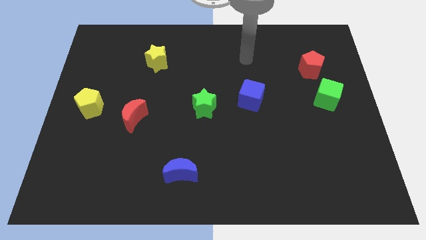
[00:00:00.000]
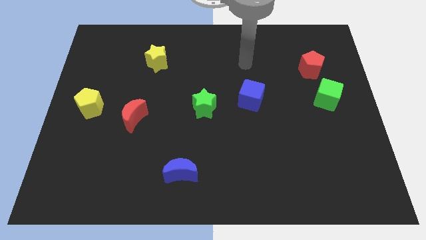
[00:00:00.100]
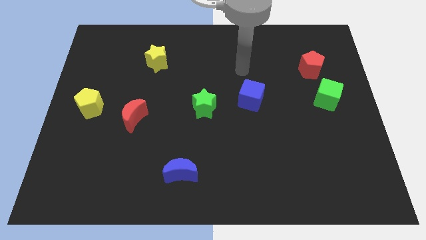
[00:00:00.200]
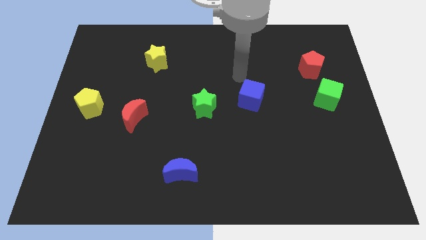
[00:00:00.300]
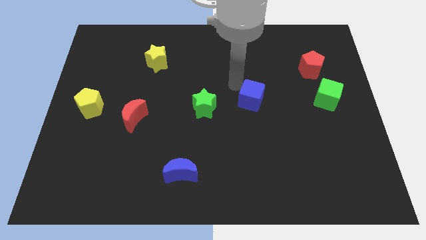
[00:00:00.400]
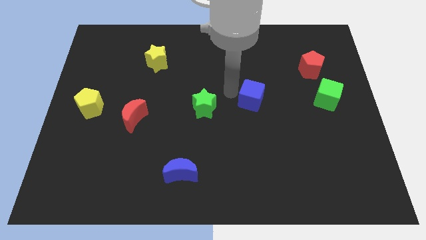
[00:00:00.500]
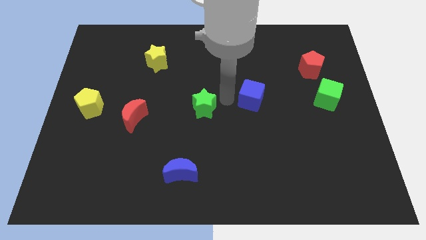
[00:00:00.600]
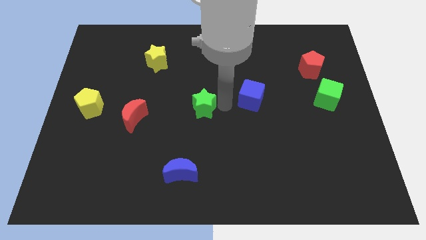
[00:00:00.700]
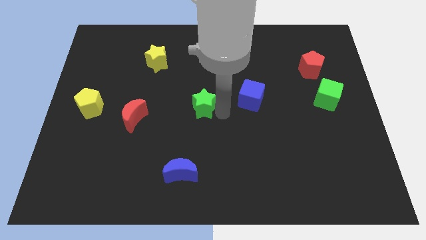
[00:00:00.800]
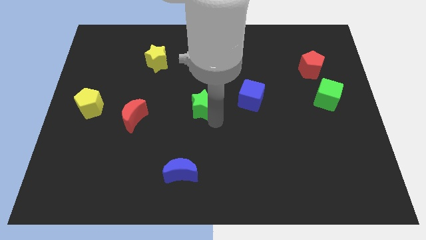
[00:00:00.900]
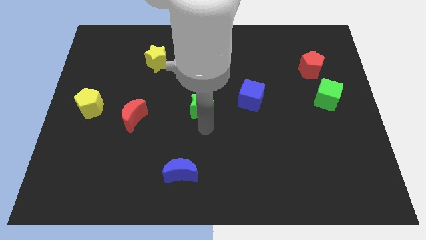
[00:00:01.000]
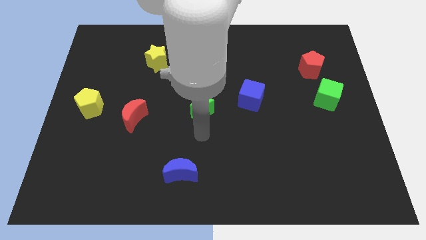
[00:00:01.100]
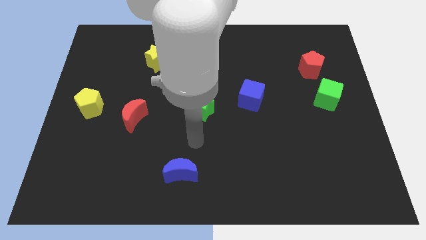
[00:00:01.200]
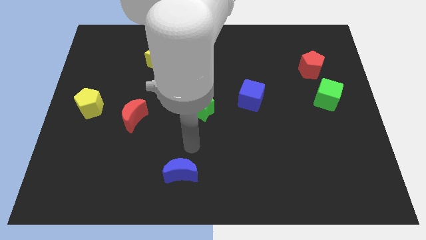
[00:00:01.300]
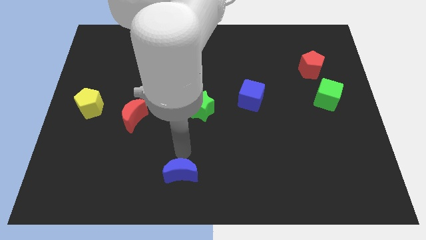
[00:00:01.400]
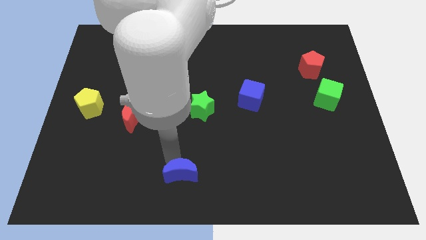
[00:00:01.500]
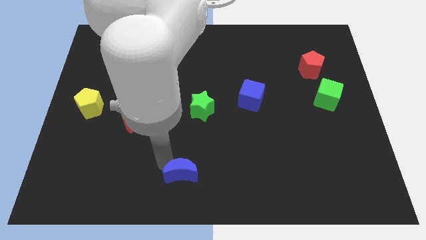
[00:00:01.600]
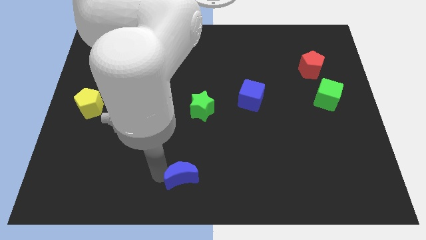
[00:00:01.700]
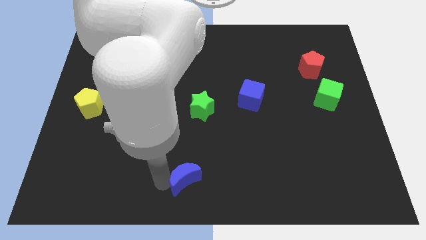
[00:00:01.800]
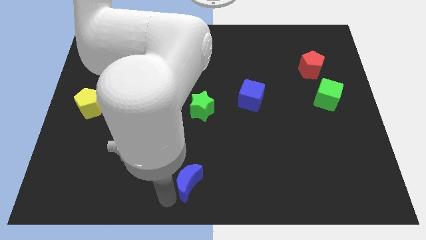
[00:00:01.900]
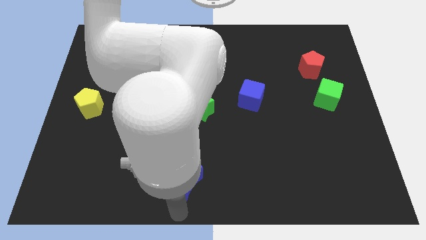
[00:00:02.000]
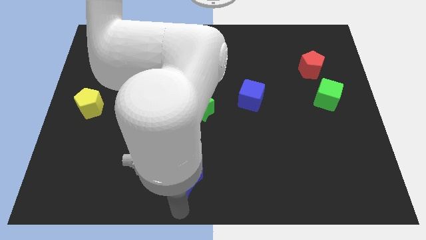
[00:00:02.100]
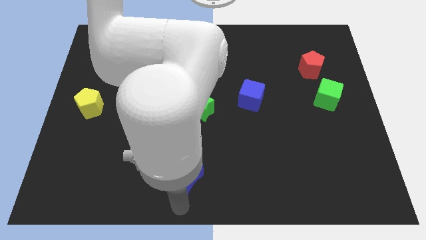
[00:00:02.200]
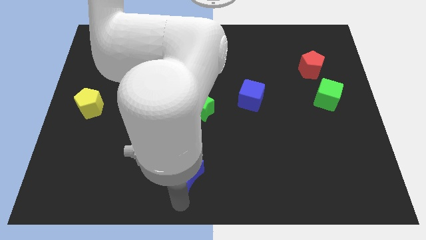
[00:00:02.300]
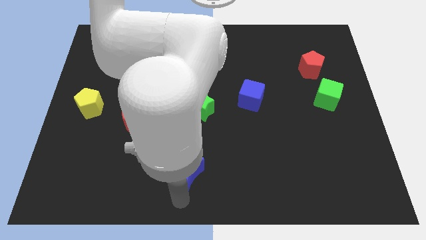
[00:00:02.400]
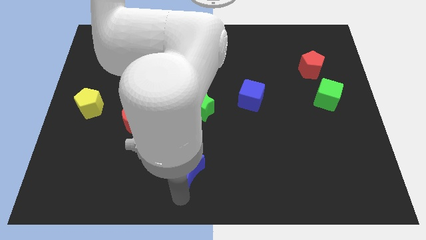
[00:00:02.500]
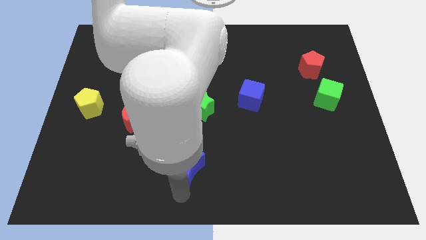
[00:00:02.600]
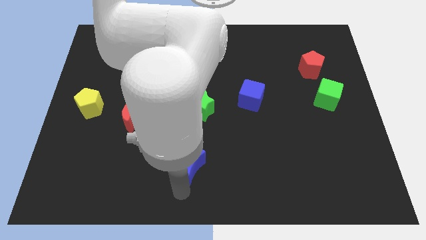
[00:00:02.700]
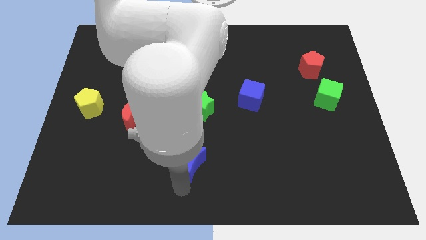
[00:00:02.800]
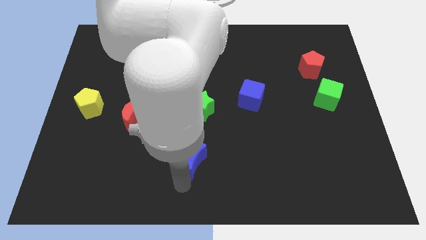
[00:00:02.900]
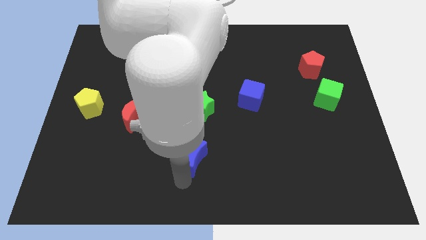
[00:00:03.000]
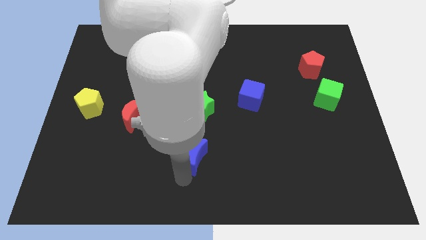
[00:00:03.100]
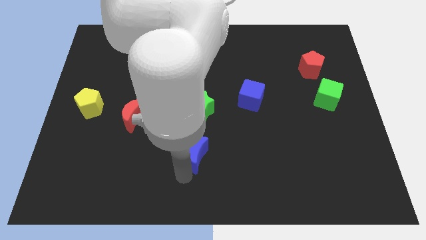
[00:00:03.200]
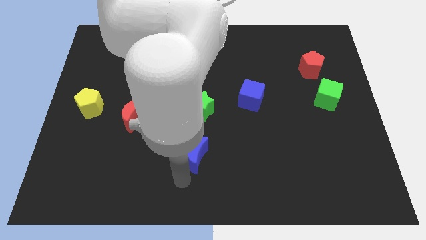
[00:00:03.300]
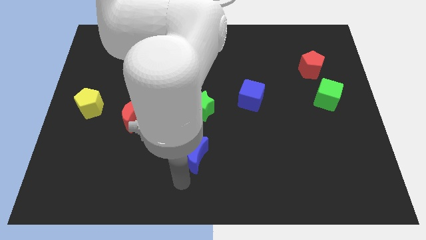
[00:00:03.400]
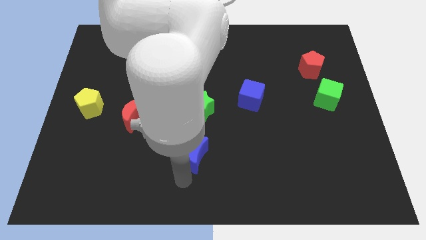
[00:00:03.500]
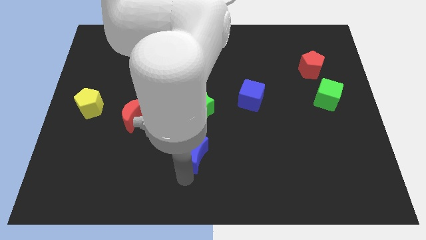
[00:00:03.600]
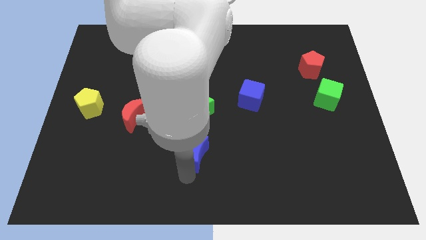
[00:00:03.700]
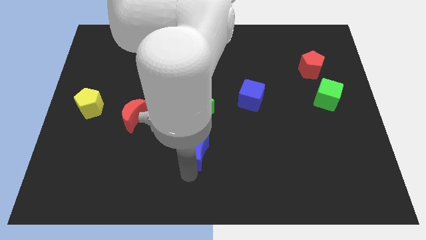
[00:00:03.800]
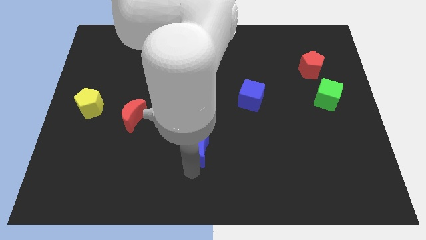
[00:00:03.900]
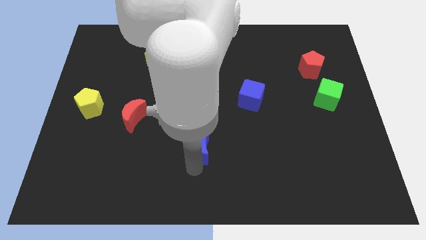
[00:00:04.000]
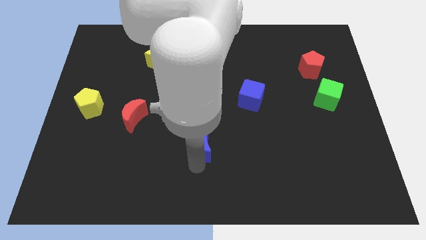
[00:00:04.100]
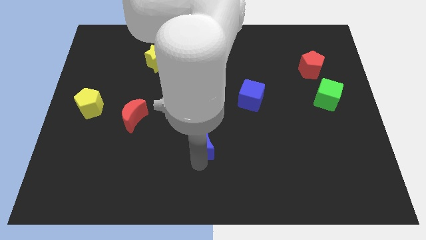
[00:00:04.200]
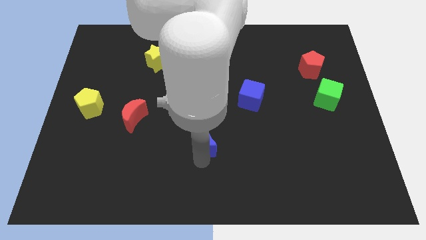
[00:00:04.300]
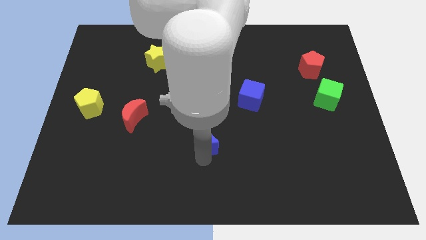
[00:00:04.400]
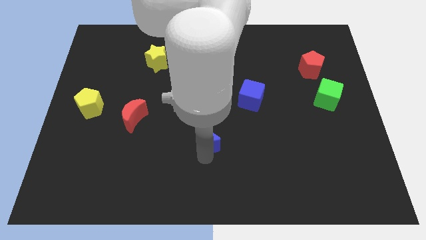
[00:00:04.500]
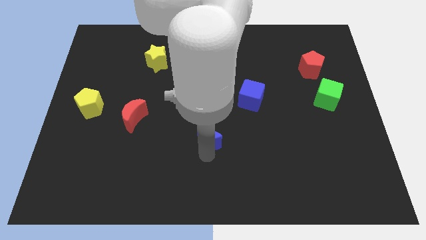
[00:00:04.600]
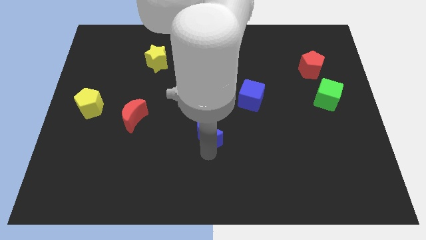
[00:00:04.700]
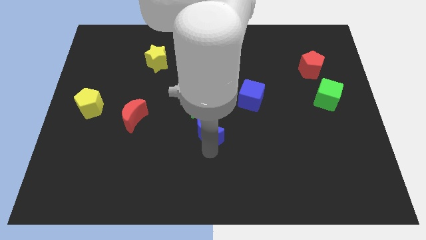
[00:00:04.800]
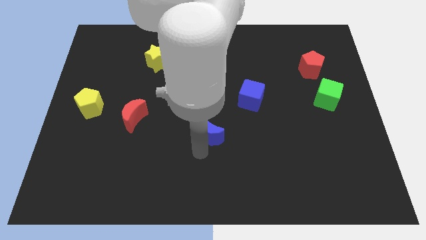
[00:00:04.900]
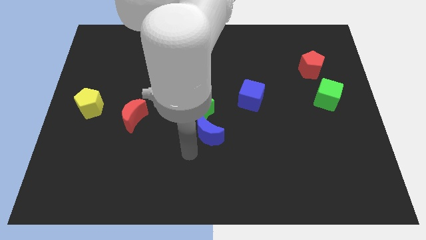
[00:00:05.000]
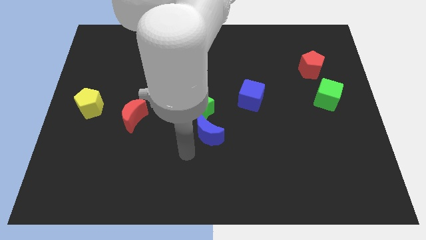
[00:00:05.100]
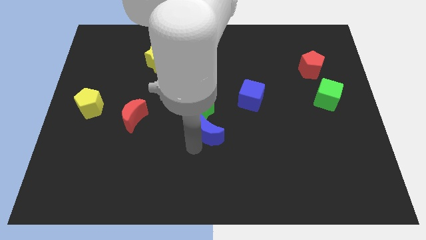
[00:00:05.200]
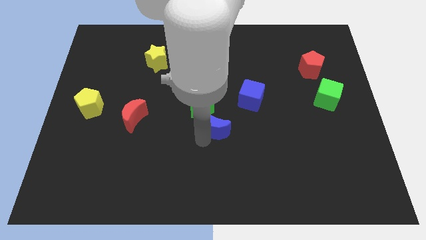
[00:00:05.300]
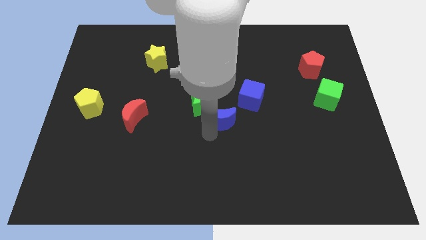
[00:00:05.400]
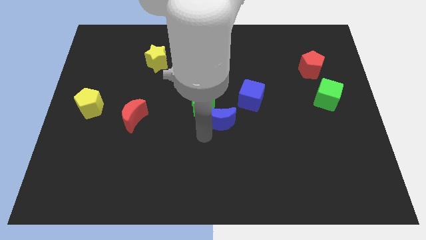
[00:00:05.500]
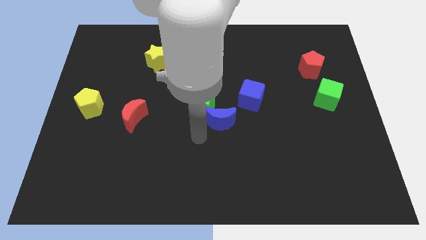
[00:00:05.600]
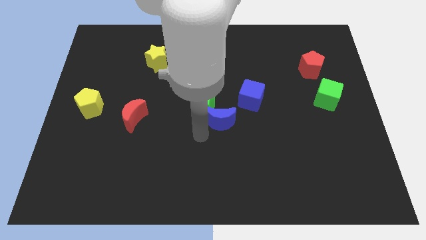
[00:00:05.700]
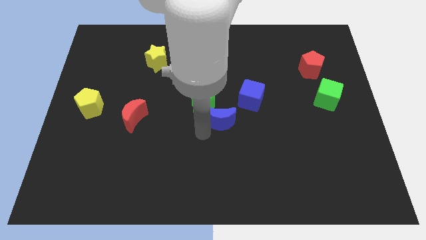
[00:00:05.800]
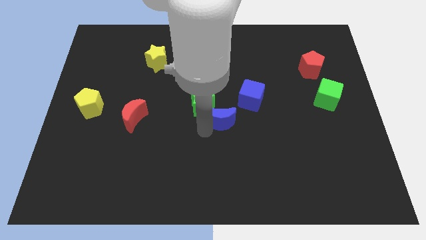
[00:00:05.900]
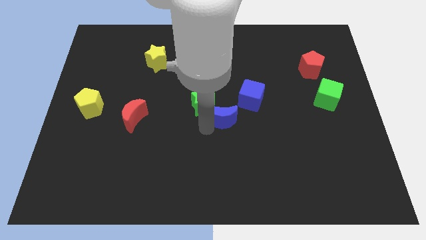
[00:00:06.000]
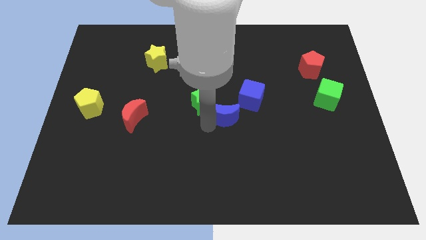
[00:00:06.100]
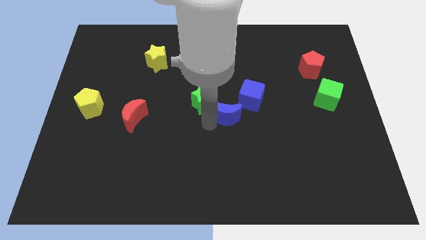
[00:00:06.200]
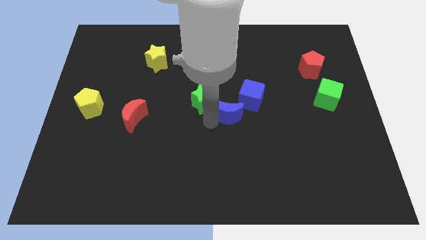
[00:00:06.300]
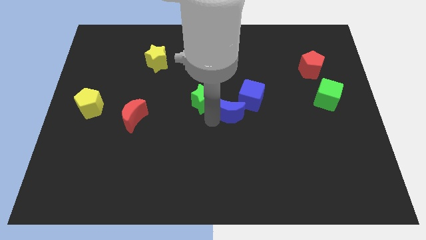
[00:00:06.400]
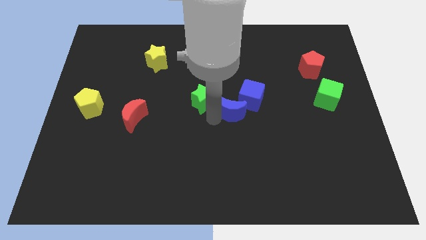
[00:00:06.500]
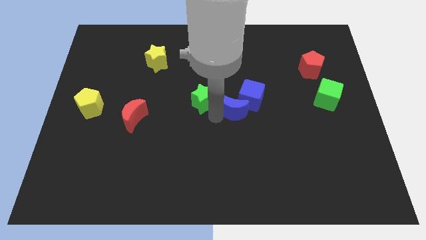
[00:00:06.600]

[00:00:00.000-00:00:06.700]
move the blue moon next to the blue cube

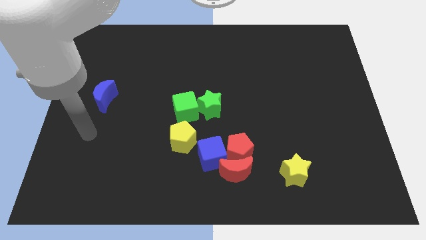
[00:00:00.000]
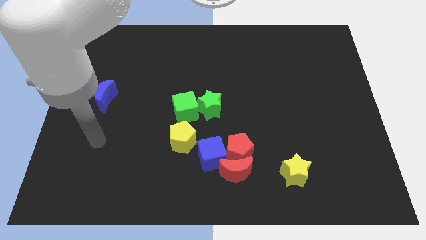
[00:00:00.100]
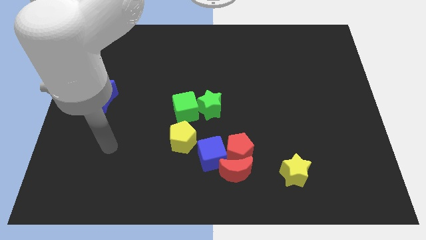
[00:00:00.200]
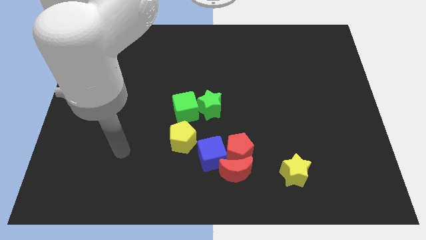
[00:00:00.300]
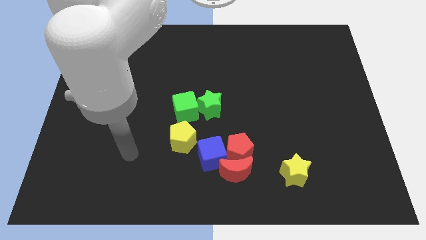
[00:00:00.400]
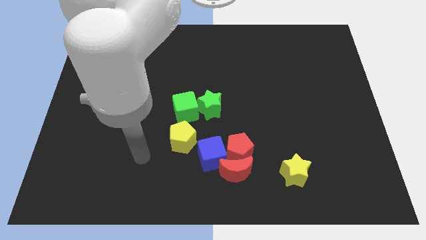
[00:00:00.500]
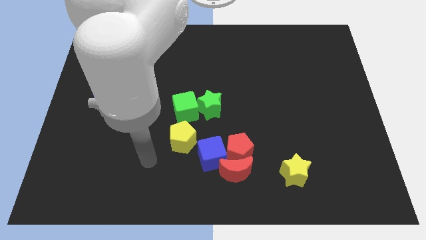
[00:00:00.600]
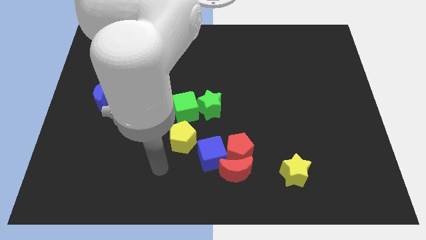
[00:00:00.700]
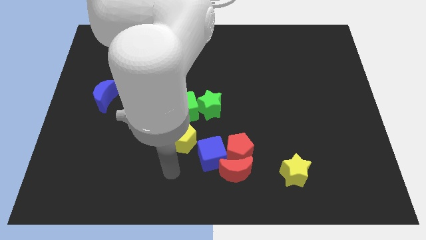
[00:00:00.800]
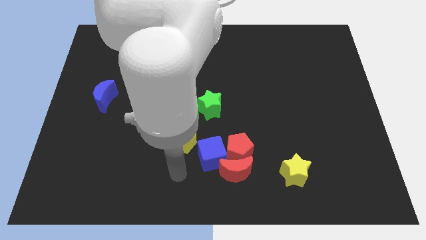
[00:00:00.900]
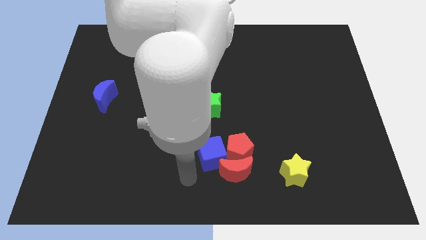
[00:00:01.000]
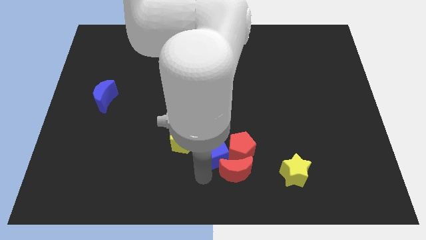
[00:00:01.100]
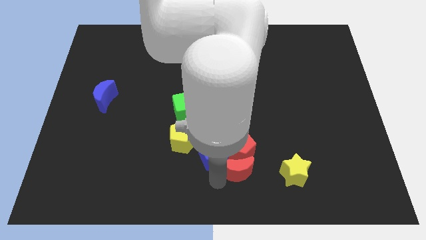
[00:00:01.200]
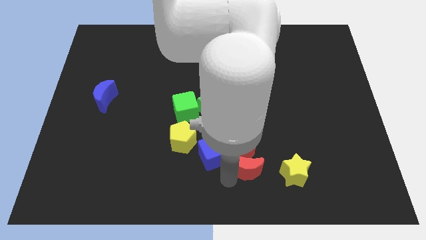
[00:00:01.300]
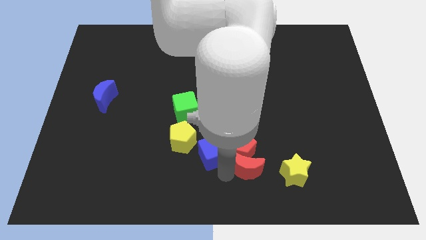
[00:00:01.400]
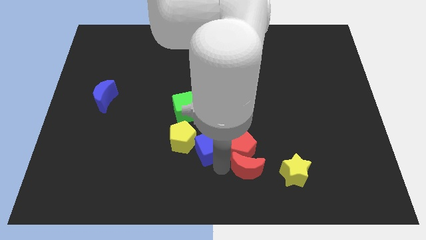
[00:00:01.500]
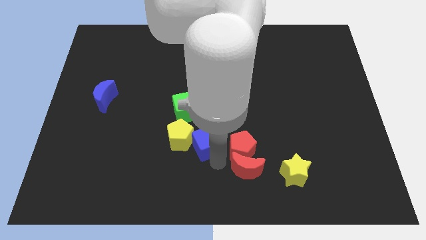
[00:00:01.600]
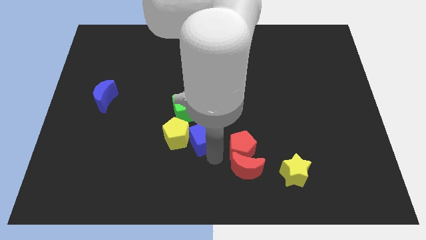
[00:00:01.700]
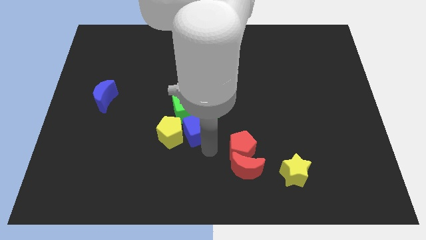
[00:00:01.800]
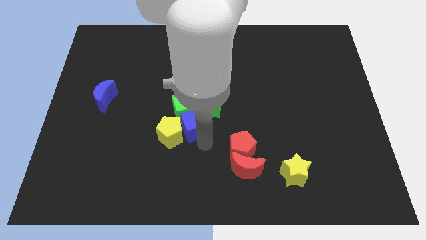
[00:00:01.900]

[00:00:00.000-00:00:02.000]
push the blue cube to the green cube
